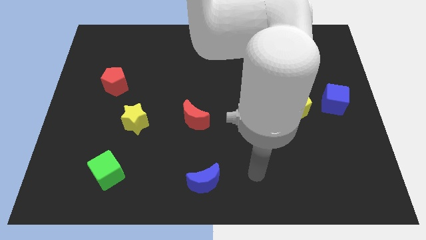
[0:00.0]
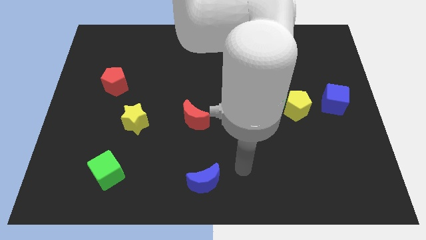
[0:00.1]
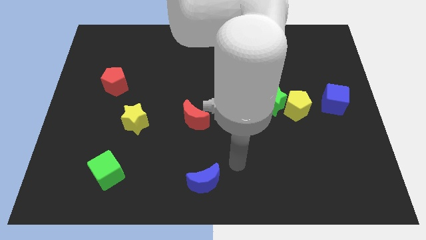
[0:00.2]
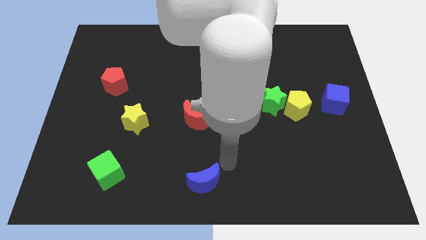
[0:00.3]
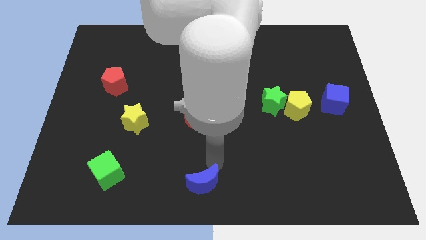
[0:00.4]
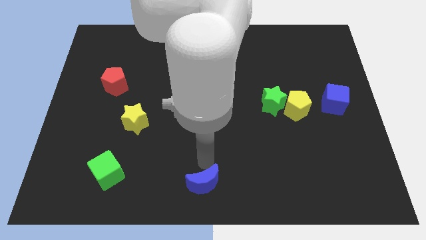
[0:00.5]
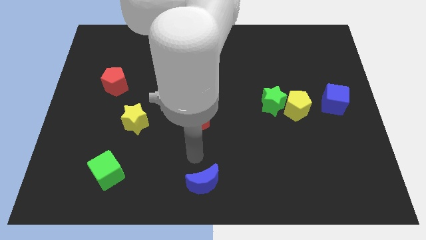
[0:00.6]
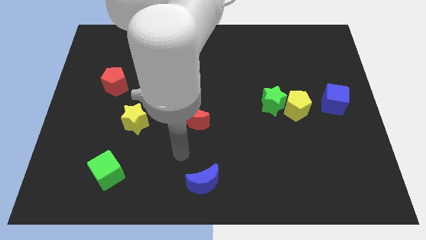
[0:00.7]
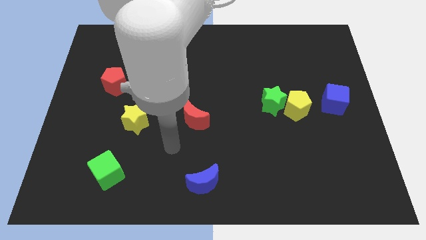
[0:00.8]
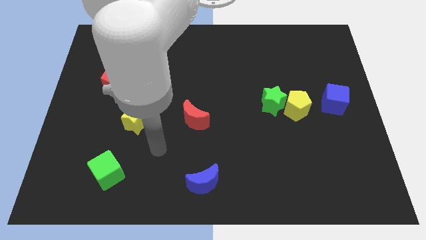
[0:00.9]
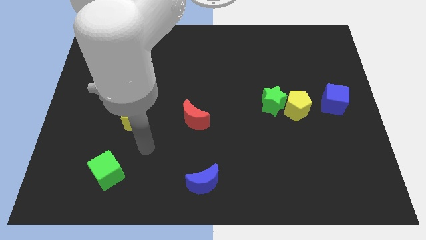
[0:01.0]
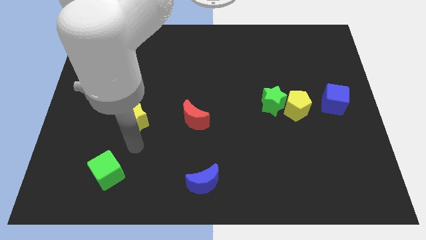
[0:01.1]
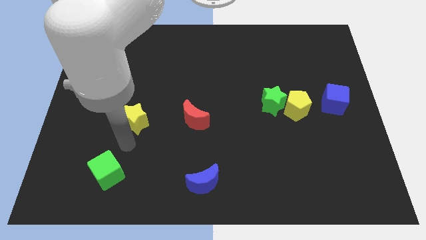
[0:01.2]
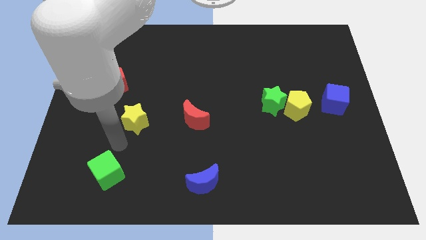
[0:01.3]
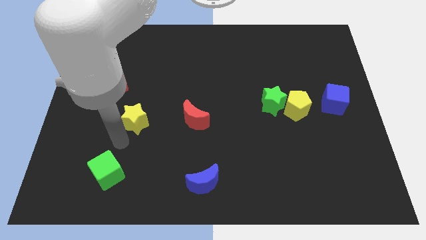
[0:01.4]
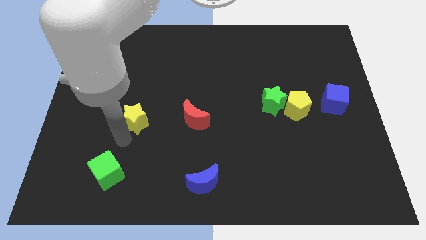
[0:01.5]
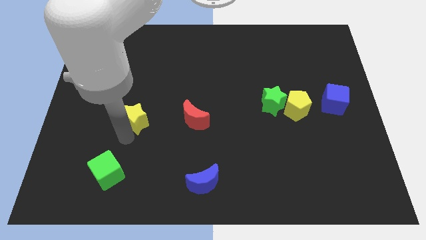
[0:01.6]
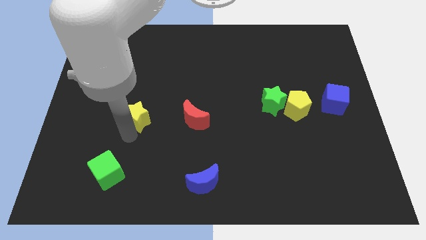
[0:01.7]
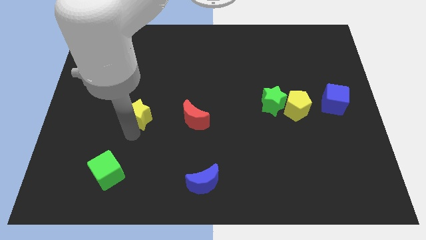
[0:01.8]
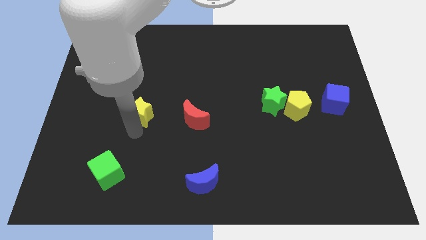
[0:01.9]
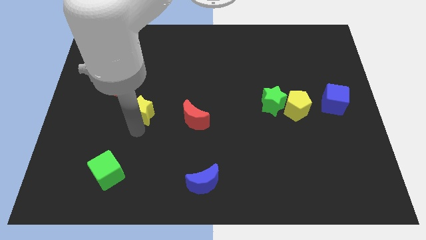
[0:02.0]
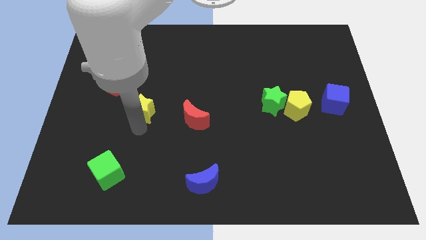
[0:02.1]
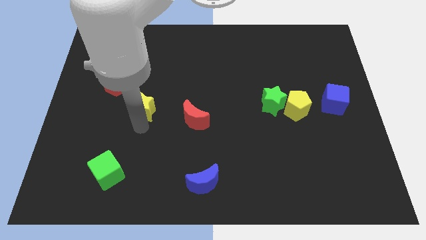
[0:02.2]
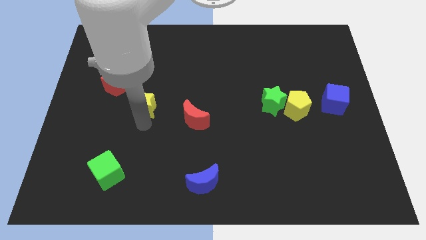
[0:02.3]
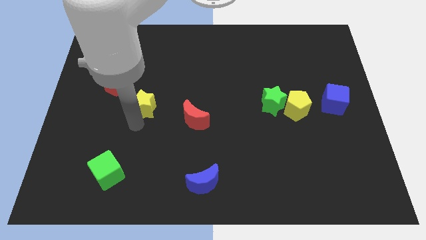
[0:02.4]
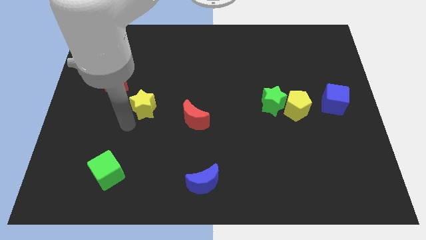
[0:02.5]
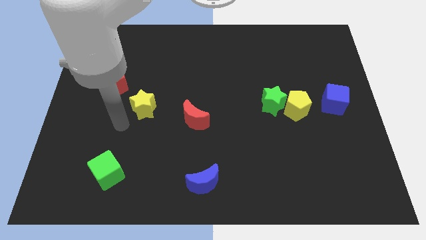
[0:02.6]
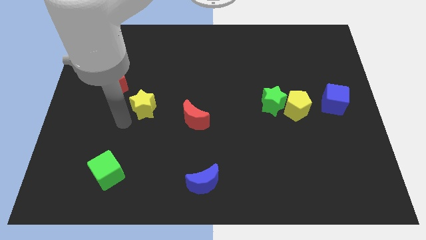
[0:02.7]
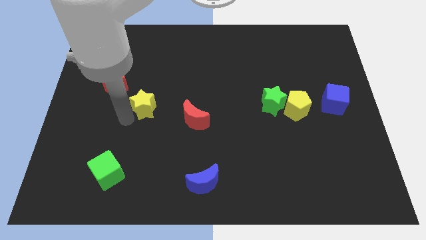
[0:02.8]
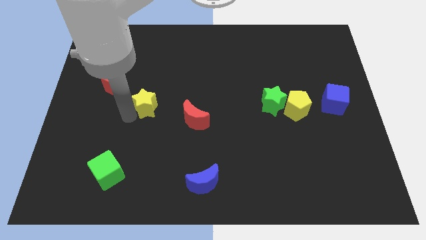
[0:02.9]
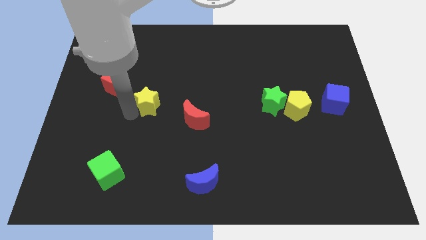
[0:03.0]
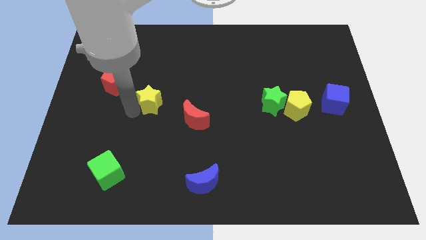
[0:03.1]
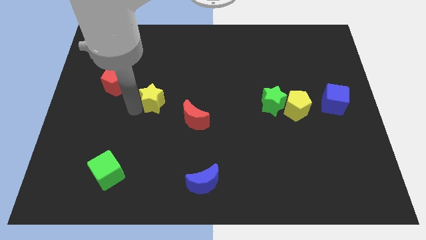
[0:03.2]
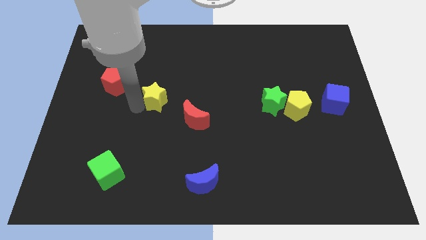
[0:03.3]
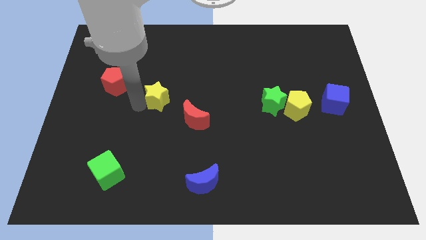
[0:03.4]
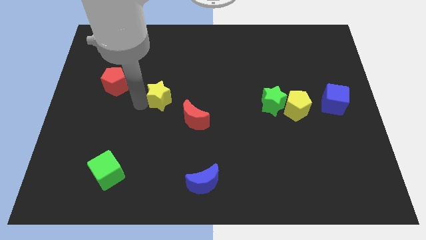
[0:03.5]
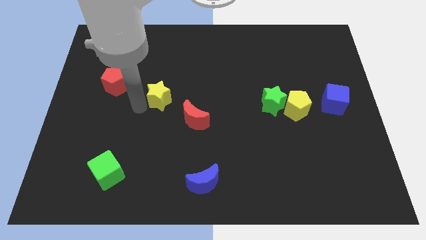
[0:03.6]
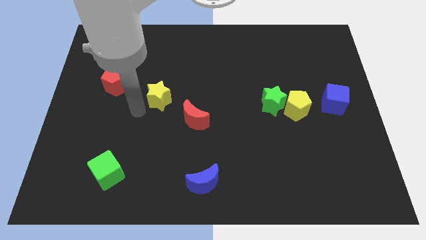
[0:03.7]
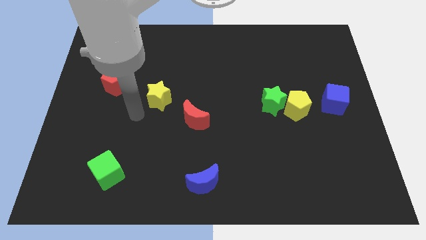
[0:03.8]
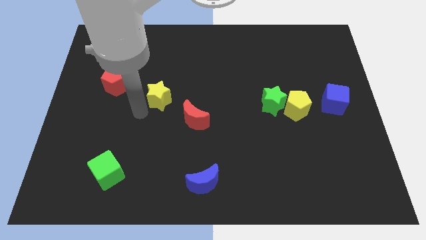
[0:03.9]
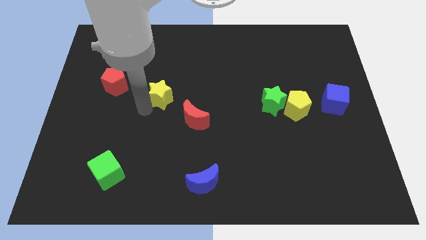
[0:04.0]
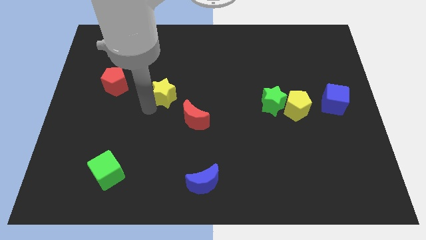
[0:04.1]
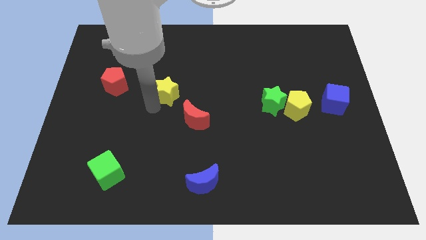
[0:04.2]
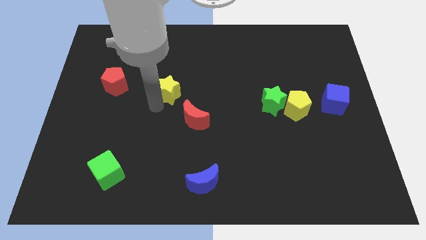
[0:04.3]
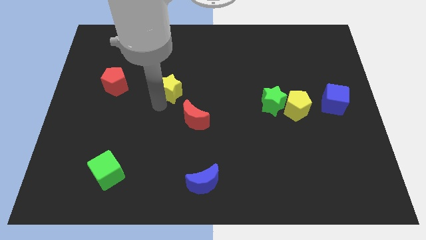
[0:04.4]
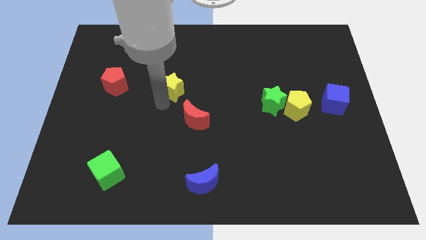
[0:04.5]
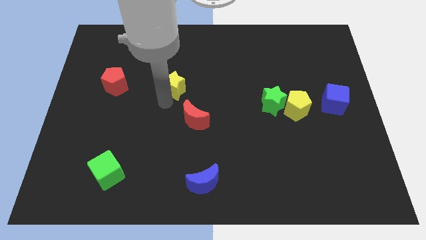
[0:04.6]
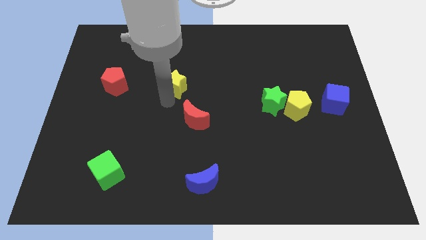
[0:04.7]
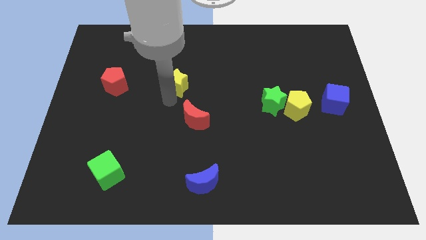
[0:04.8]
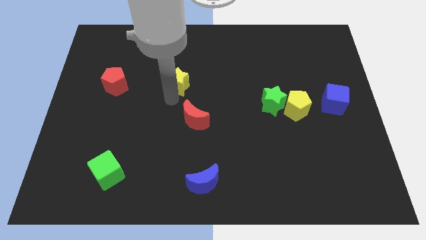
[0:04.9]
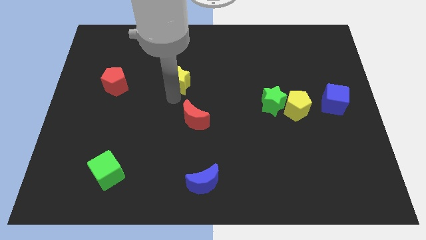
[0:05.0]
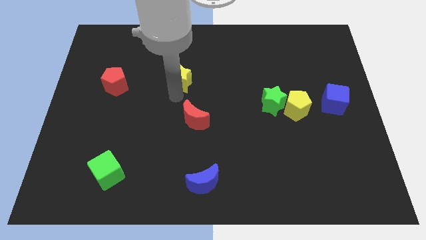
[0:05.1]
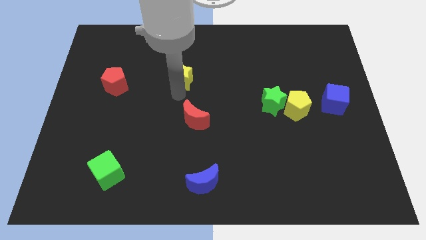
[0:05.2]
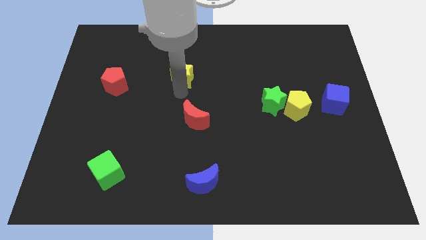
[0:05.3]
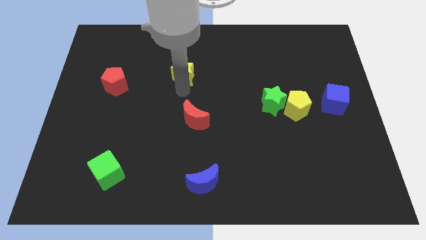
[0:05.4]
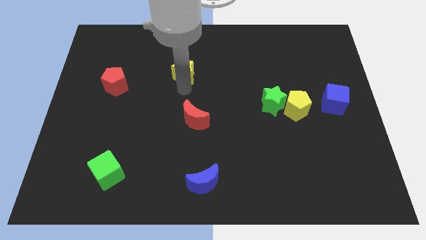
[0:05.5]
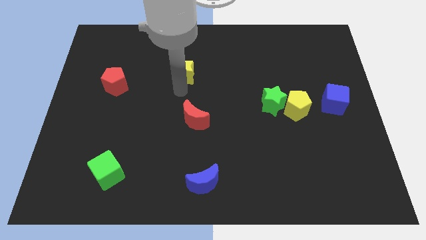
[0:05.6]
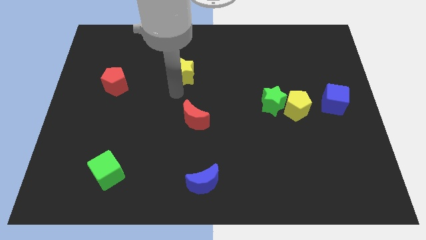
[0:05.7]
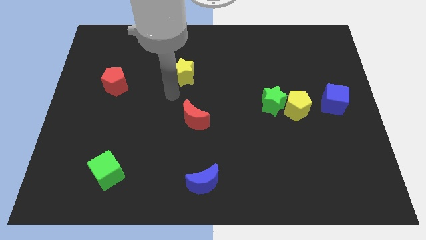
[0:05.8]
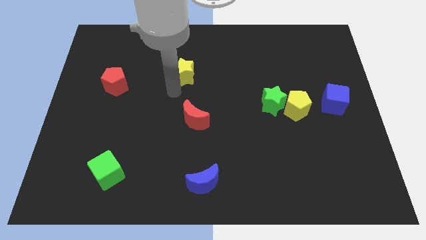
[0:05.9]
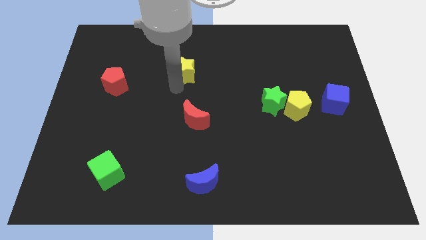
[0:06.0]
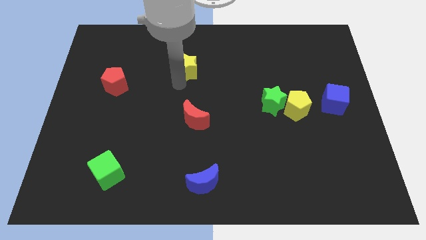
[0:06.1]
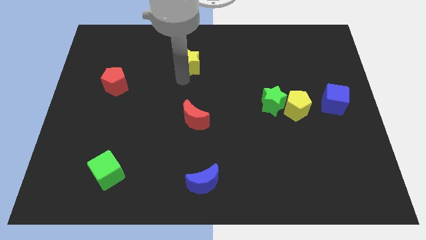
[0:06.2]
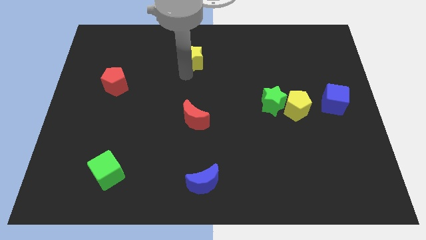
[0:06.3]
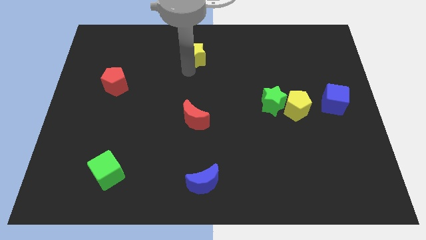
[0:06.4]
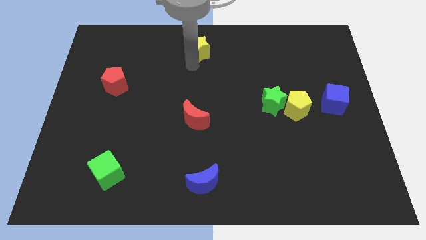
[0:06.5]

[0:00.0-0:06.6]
put the yellow star to the top side
